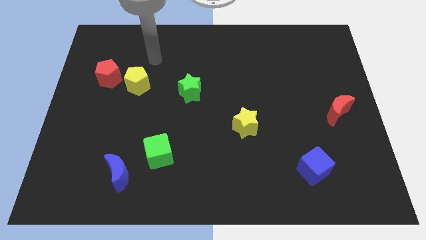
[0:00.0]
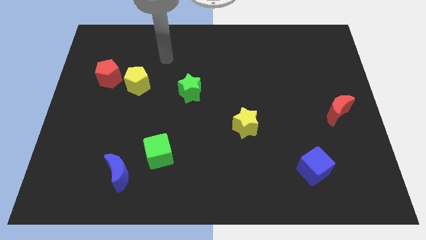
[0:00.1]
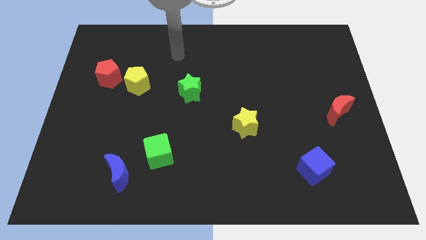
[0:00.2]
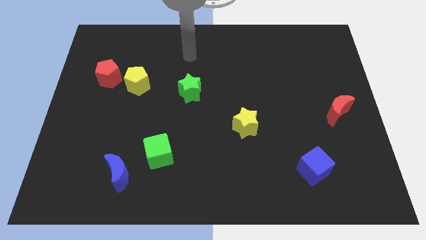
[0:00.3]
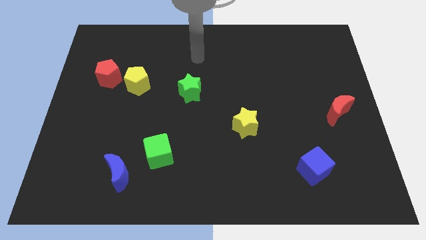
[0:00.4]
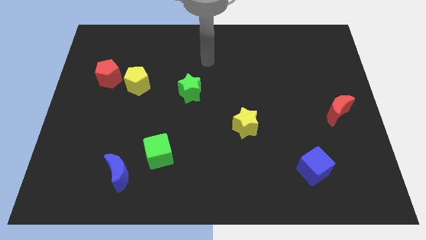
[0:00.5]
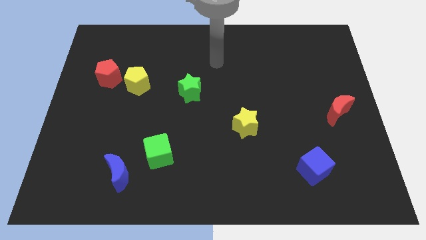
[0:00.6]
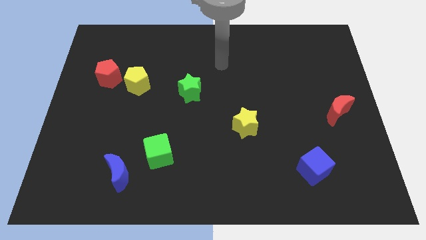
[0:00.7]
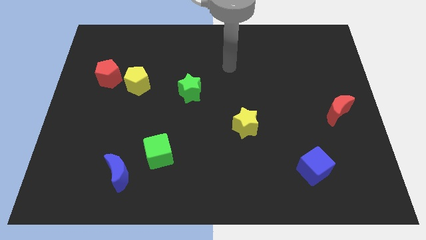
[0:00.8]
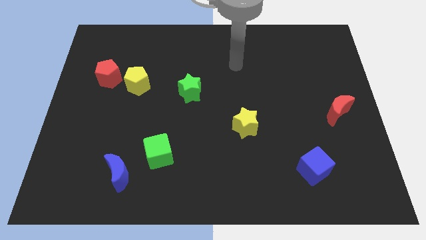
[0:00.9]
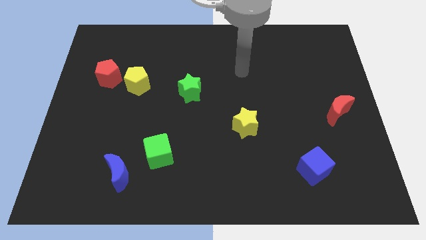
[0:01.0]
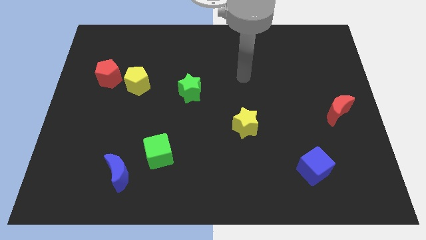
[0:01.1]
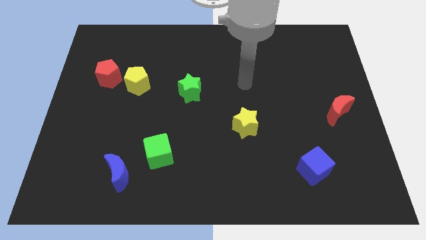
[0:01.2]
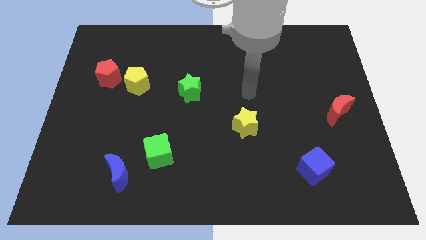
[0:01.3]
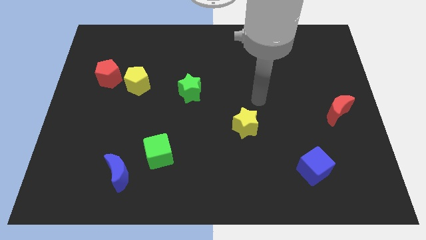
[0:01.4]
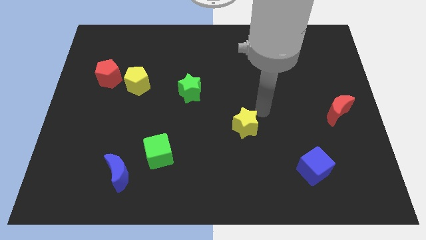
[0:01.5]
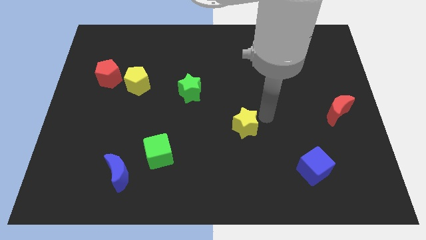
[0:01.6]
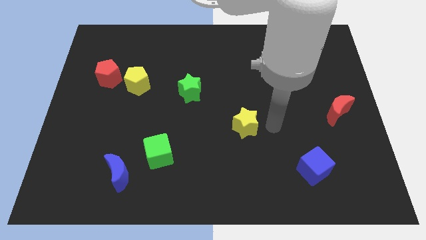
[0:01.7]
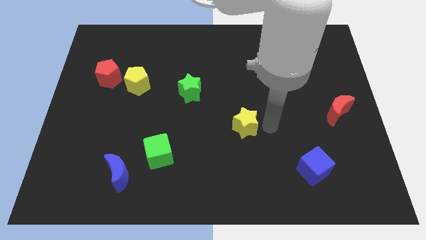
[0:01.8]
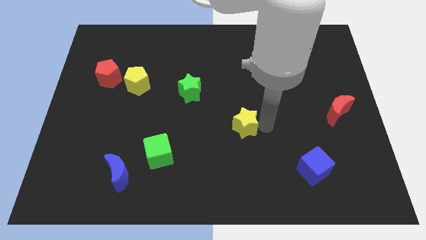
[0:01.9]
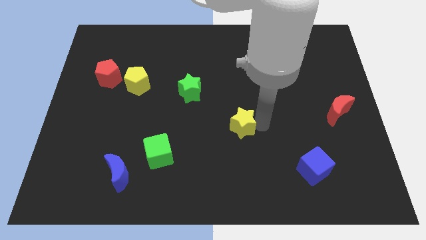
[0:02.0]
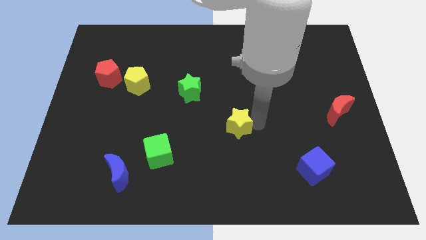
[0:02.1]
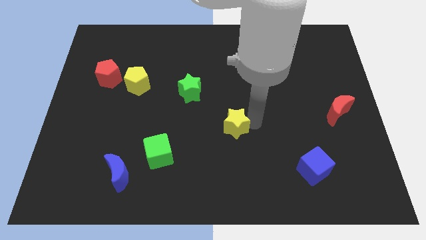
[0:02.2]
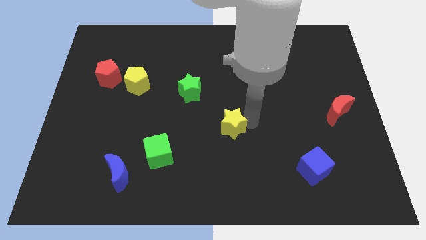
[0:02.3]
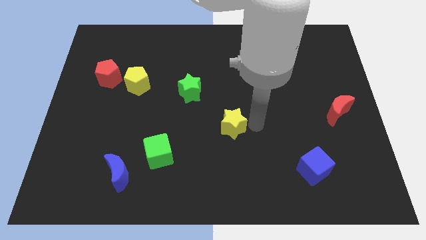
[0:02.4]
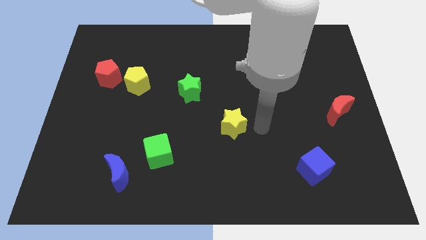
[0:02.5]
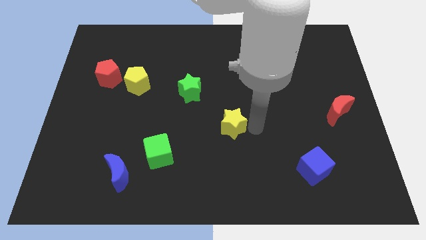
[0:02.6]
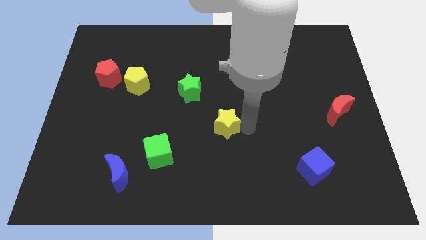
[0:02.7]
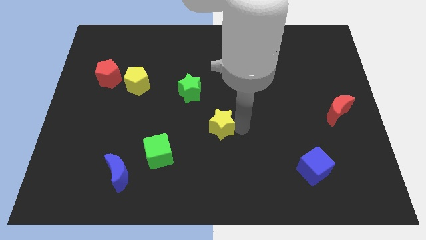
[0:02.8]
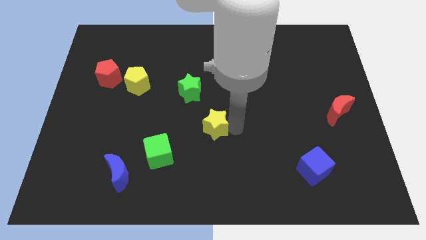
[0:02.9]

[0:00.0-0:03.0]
push the yellow star a bit left

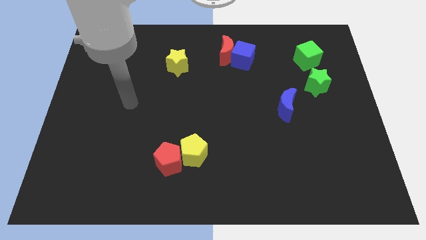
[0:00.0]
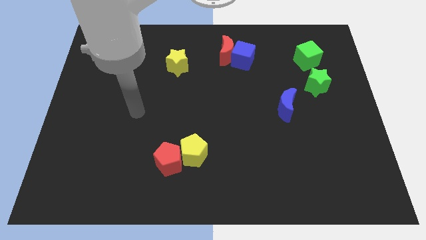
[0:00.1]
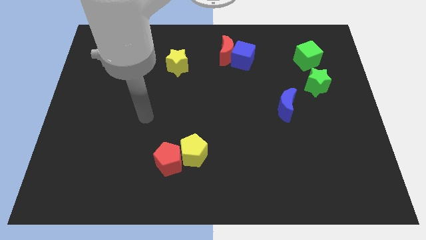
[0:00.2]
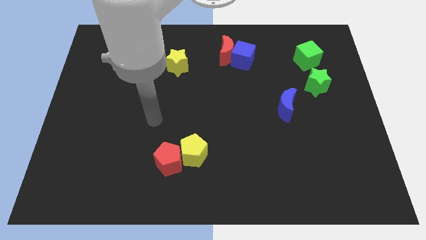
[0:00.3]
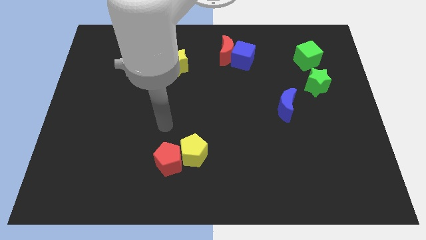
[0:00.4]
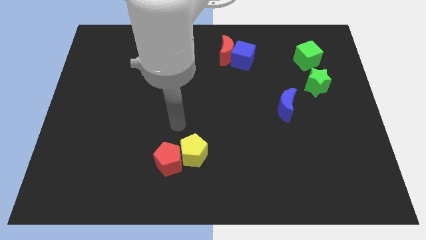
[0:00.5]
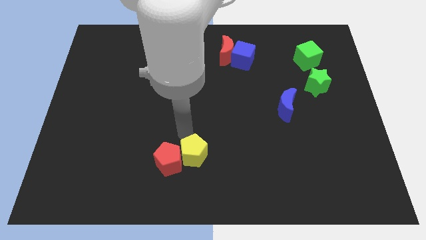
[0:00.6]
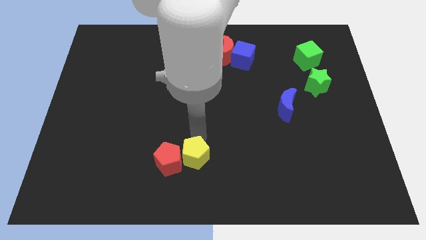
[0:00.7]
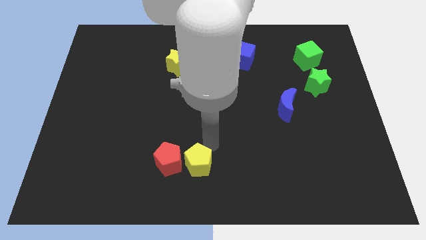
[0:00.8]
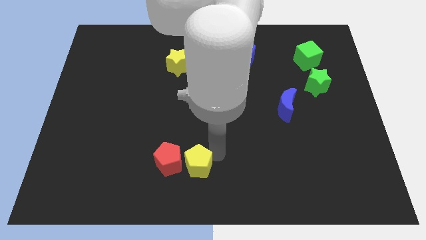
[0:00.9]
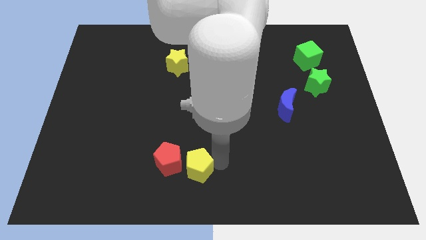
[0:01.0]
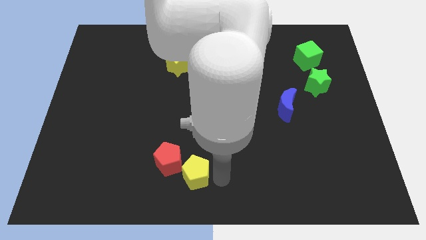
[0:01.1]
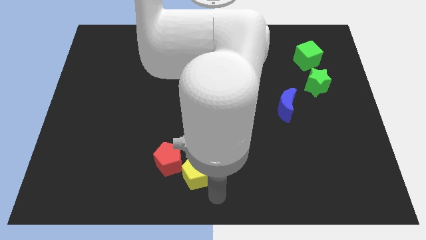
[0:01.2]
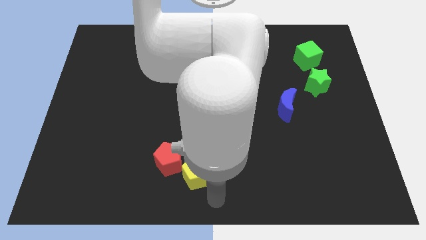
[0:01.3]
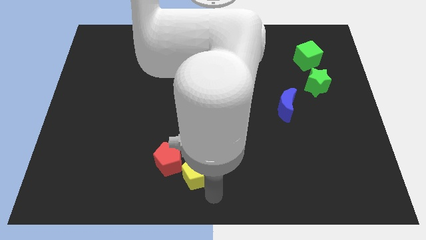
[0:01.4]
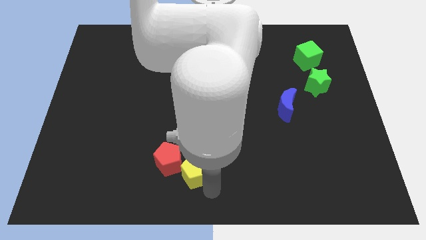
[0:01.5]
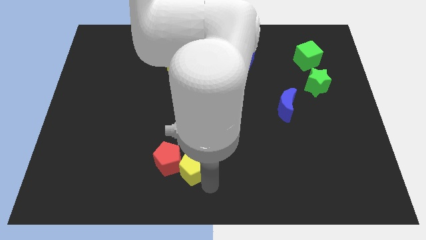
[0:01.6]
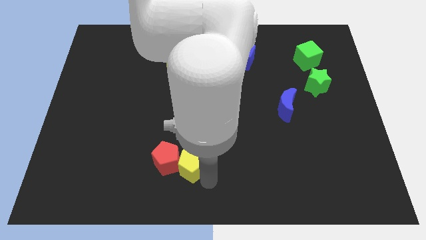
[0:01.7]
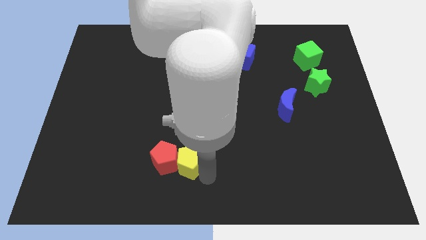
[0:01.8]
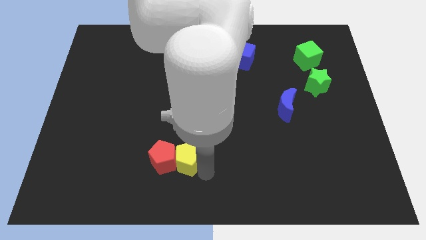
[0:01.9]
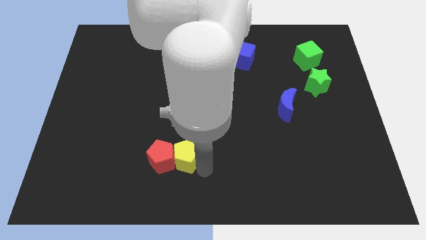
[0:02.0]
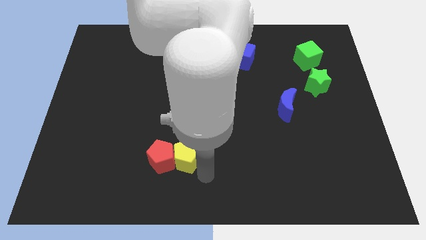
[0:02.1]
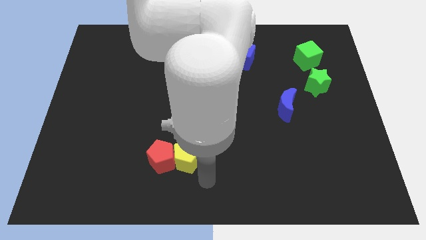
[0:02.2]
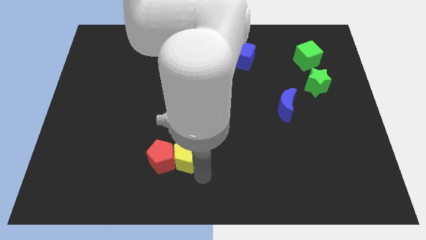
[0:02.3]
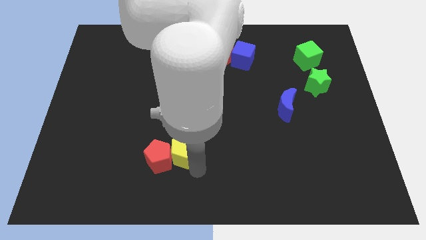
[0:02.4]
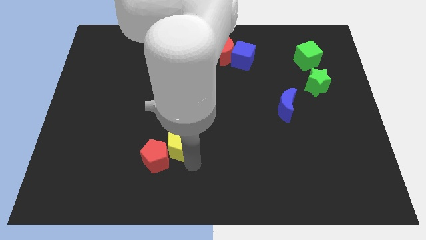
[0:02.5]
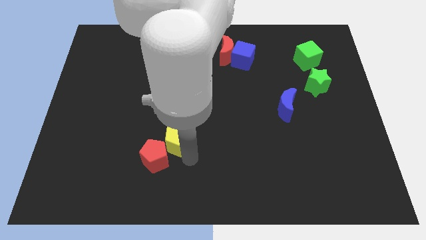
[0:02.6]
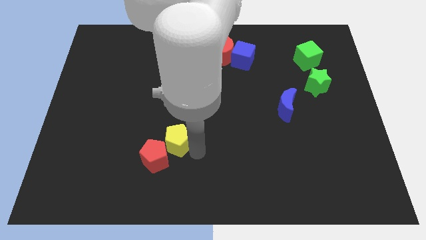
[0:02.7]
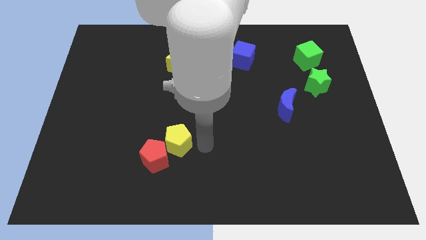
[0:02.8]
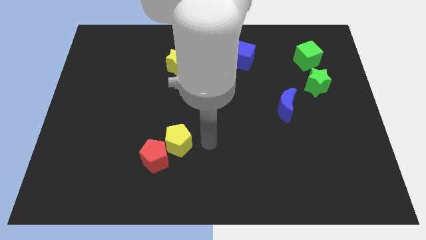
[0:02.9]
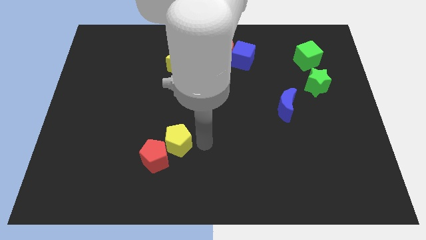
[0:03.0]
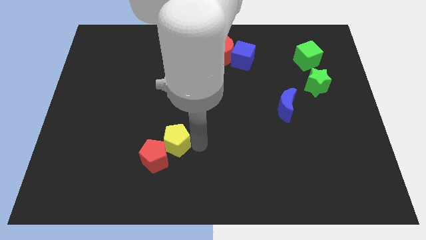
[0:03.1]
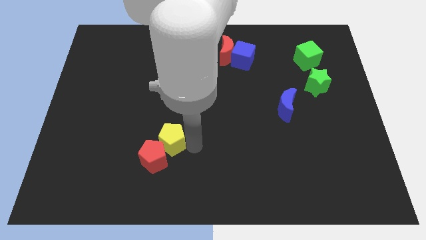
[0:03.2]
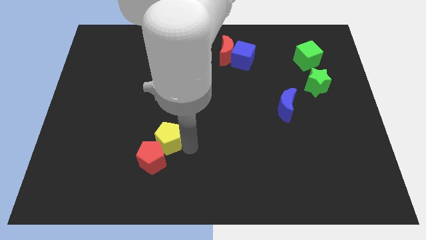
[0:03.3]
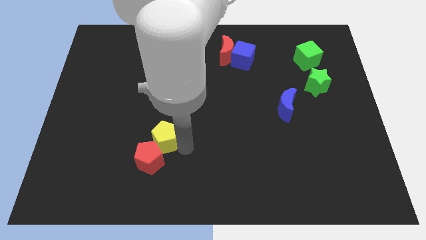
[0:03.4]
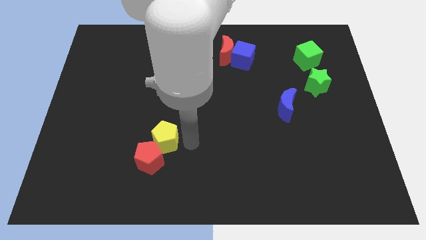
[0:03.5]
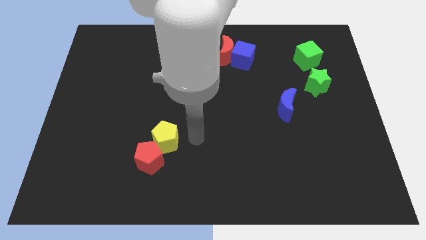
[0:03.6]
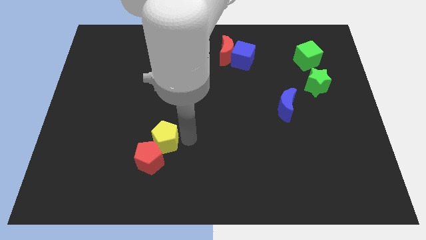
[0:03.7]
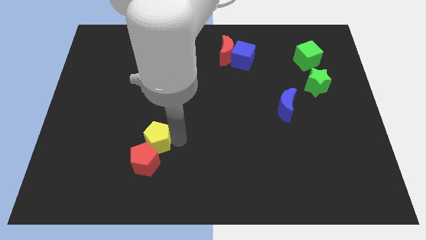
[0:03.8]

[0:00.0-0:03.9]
slightly move the yellow pentagon left

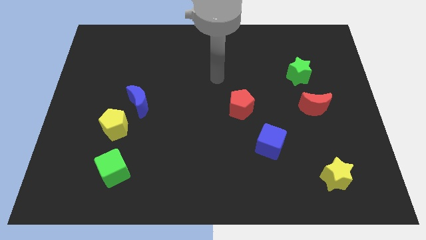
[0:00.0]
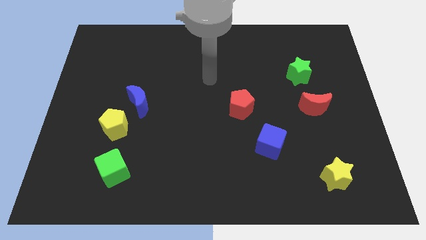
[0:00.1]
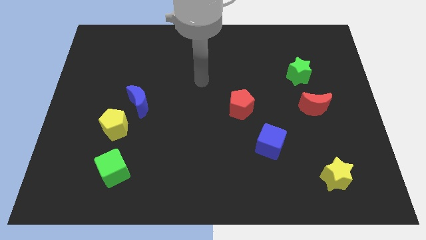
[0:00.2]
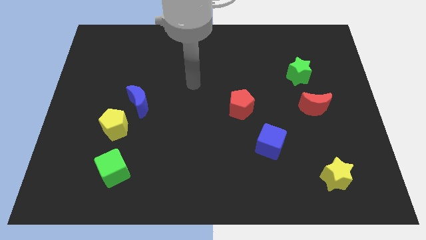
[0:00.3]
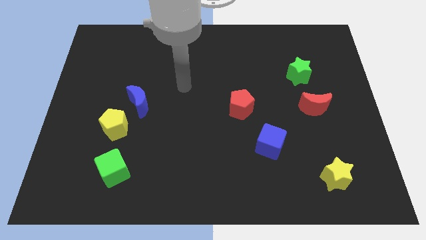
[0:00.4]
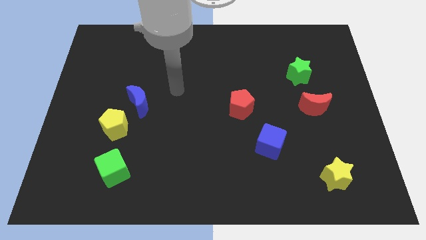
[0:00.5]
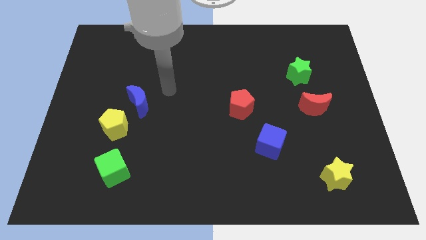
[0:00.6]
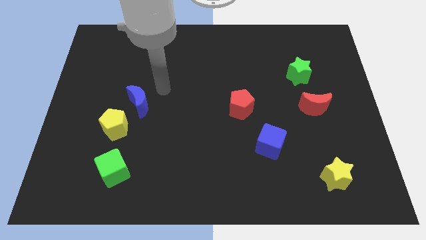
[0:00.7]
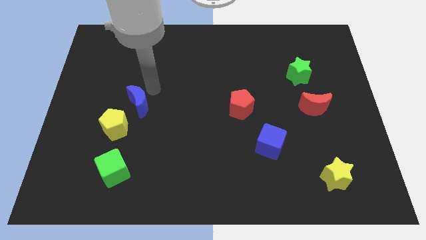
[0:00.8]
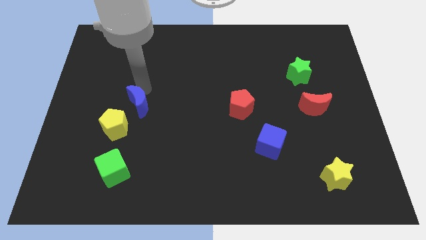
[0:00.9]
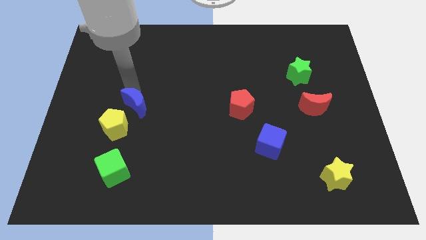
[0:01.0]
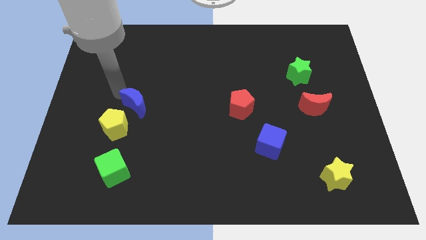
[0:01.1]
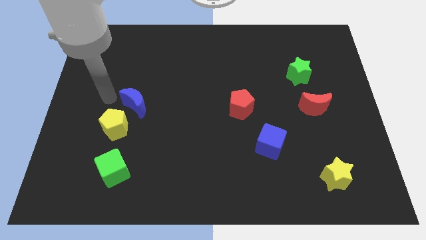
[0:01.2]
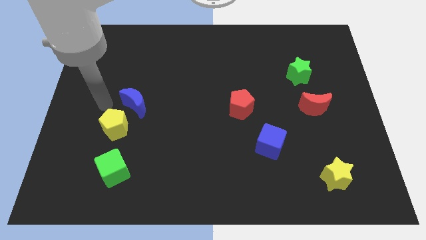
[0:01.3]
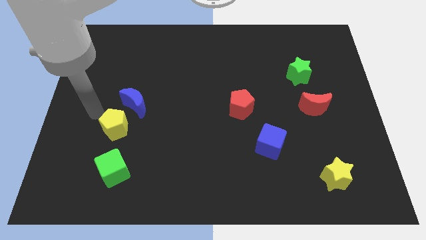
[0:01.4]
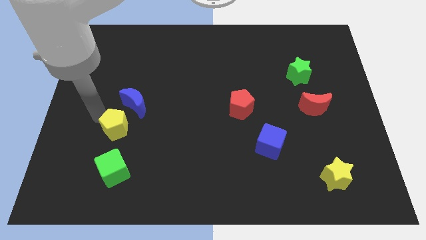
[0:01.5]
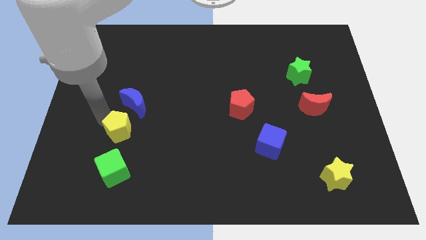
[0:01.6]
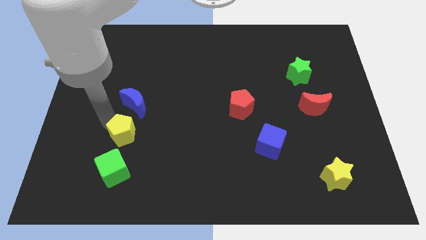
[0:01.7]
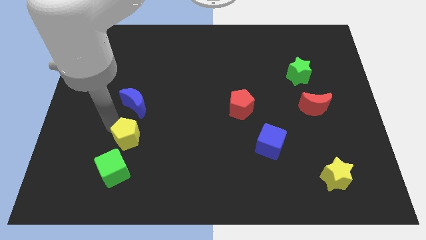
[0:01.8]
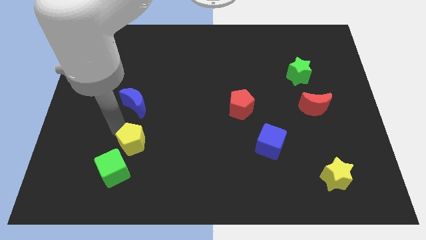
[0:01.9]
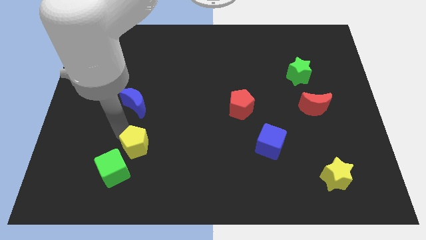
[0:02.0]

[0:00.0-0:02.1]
move the yellow pentagon diagonally down and right a bit
